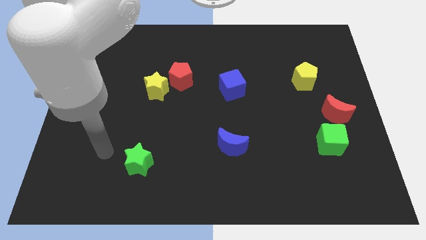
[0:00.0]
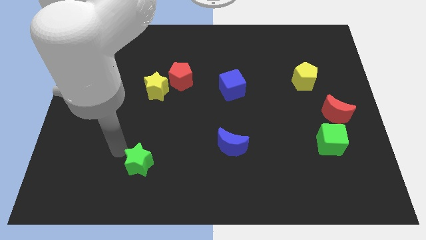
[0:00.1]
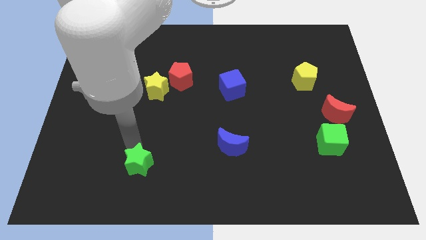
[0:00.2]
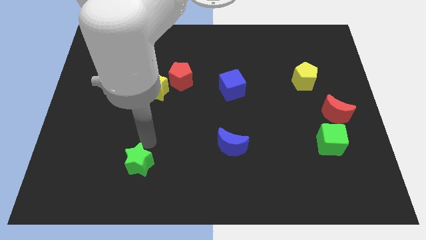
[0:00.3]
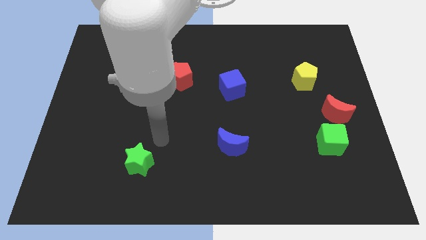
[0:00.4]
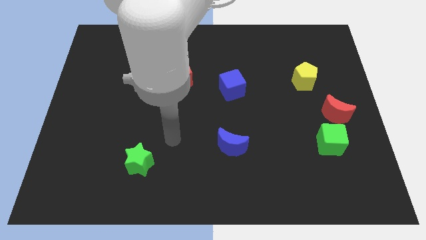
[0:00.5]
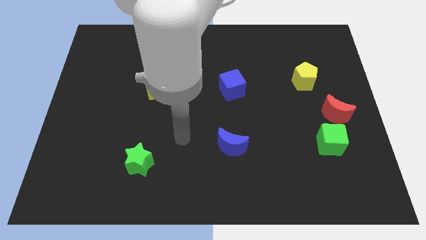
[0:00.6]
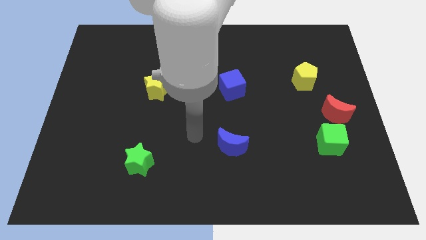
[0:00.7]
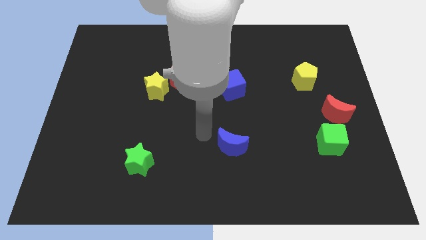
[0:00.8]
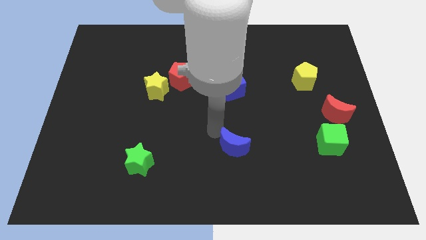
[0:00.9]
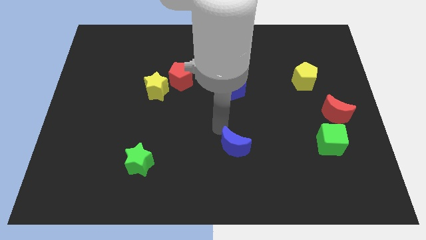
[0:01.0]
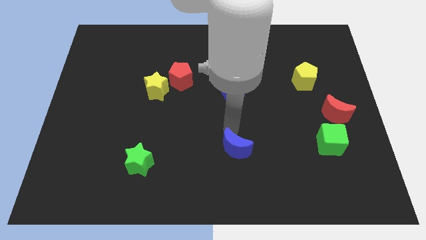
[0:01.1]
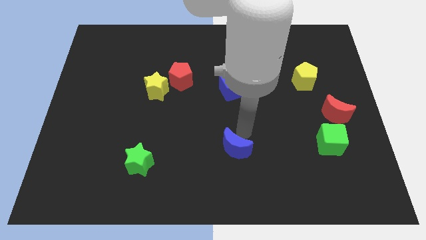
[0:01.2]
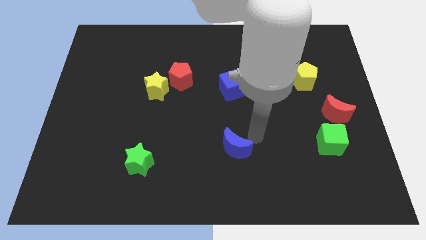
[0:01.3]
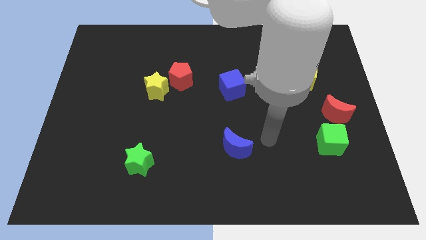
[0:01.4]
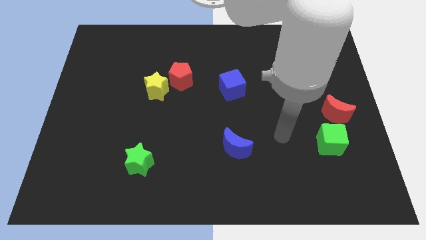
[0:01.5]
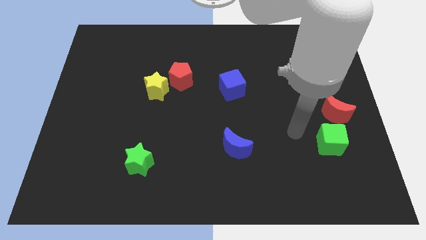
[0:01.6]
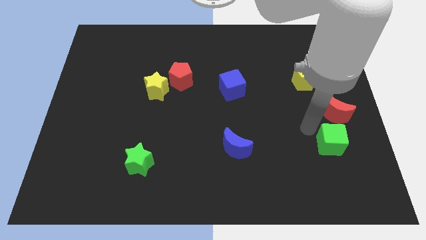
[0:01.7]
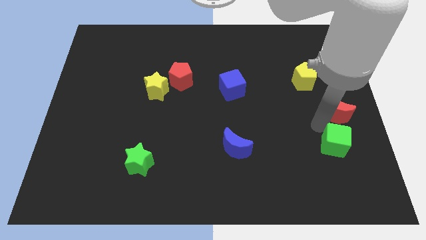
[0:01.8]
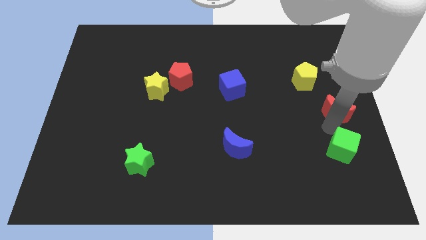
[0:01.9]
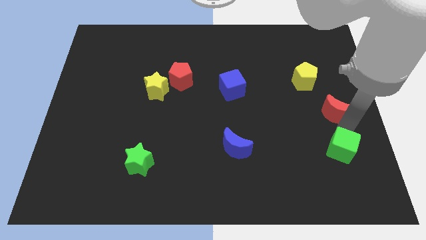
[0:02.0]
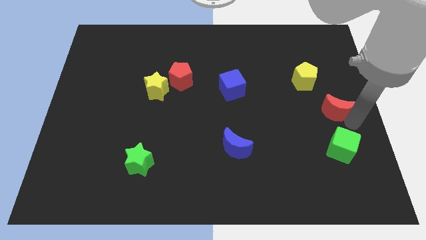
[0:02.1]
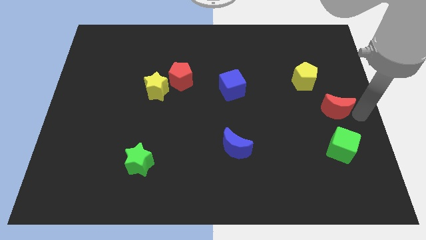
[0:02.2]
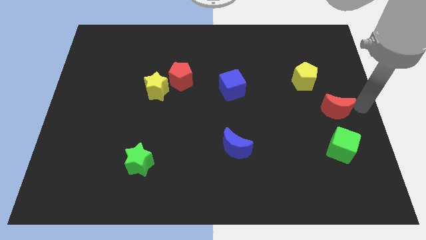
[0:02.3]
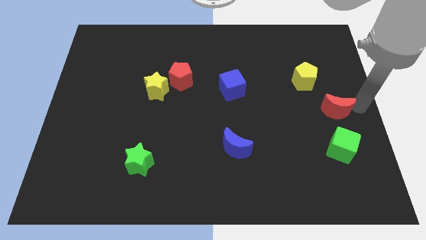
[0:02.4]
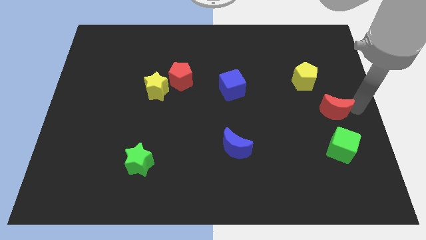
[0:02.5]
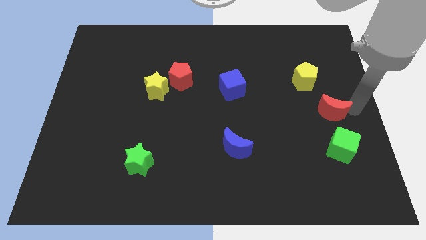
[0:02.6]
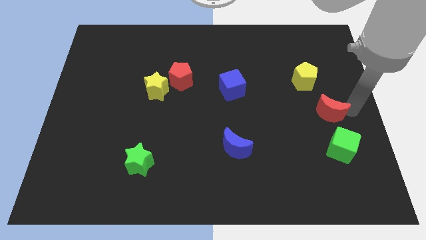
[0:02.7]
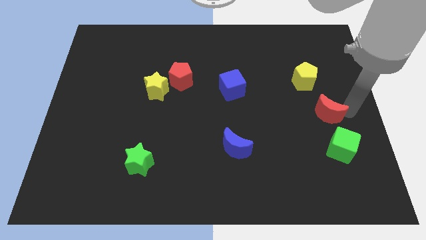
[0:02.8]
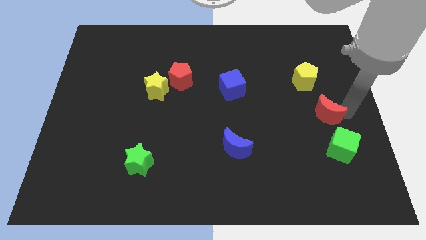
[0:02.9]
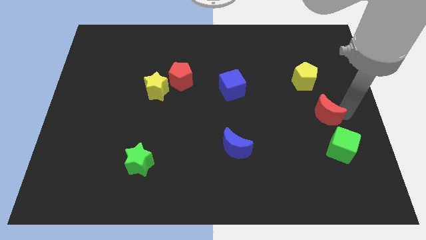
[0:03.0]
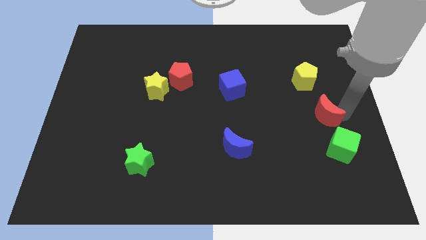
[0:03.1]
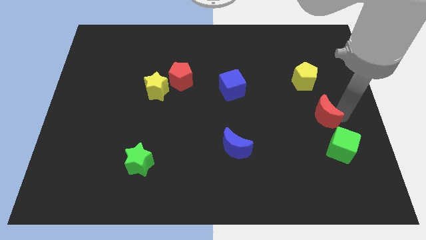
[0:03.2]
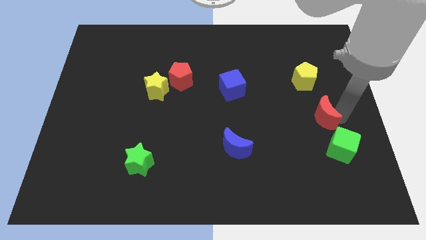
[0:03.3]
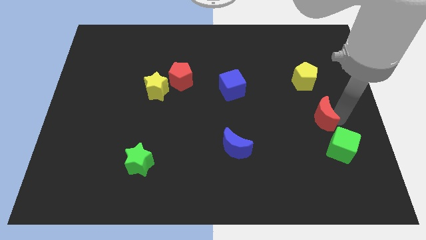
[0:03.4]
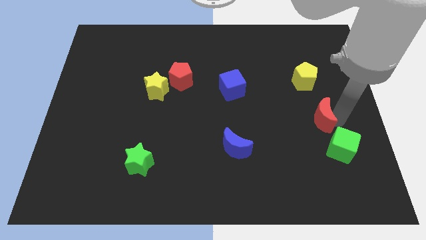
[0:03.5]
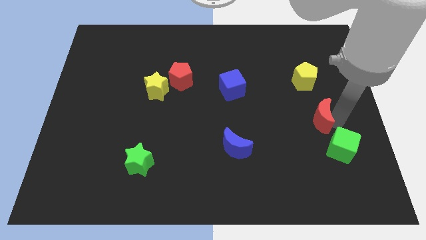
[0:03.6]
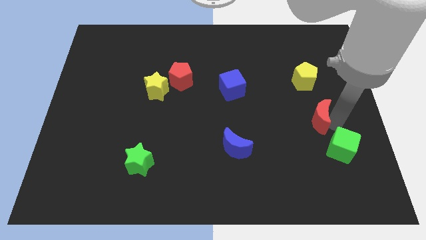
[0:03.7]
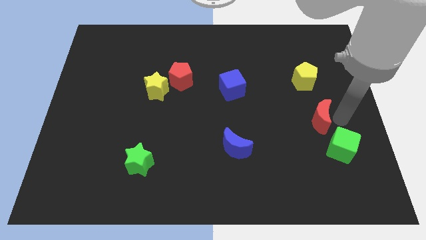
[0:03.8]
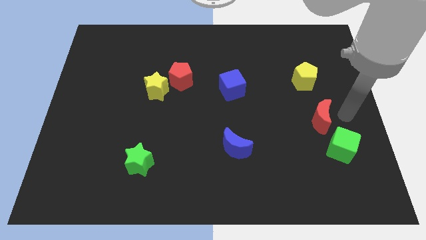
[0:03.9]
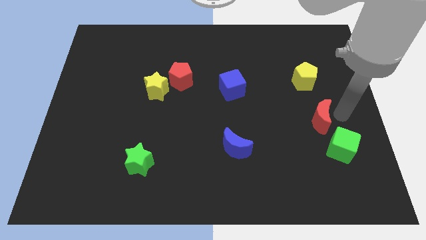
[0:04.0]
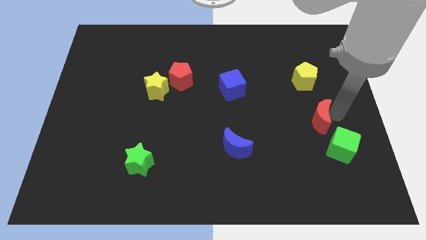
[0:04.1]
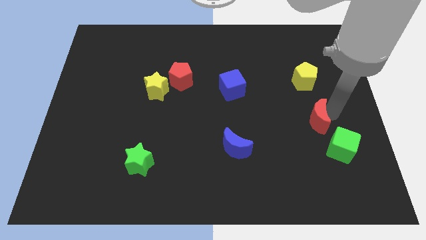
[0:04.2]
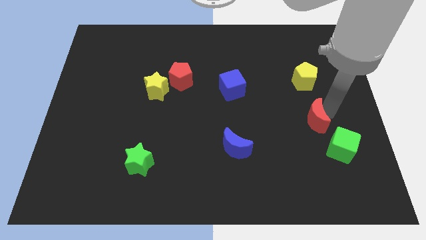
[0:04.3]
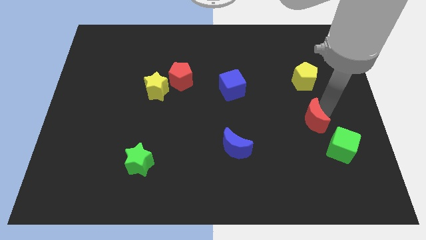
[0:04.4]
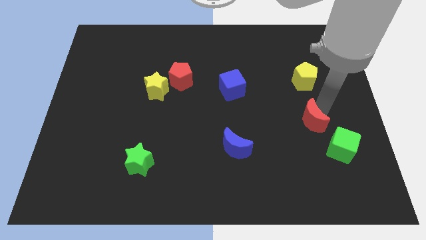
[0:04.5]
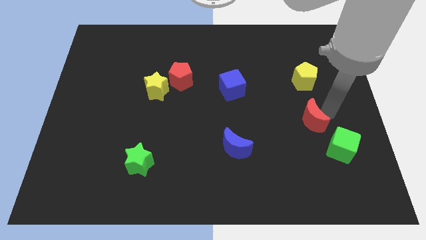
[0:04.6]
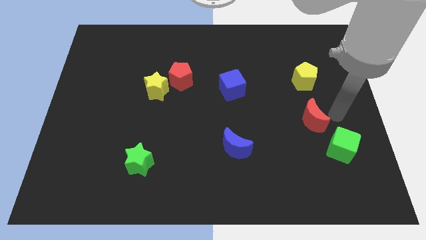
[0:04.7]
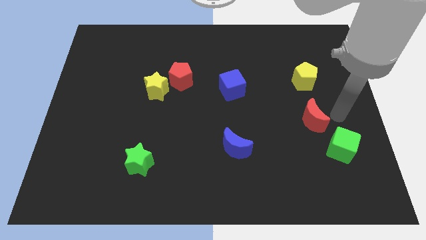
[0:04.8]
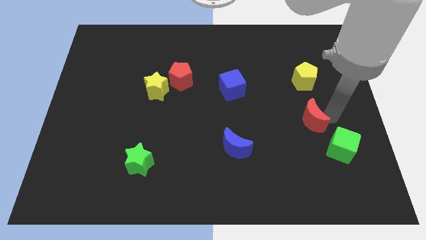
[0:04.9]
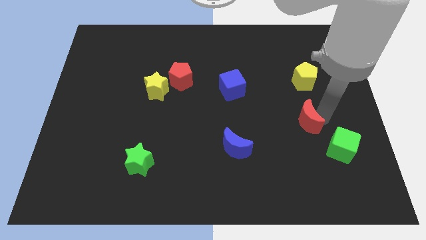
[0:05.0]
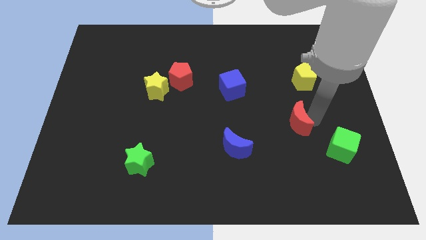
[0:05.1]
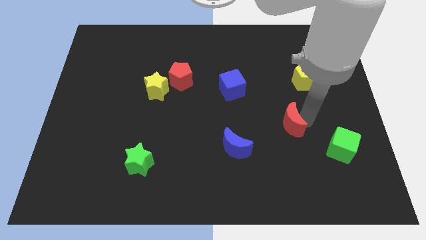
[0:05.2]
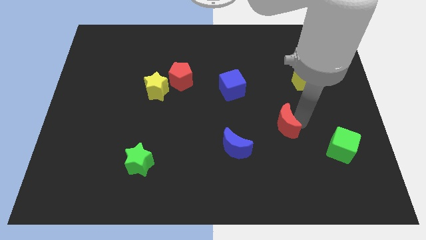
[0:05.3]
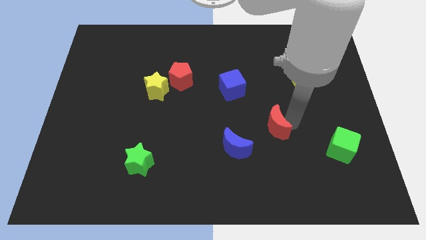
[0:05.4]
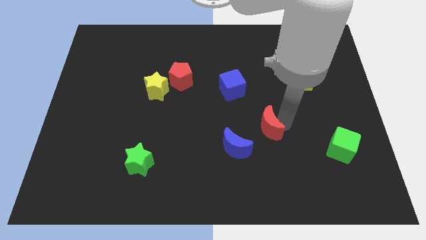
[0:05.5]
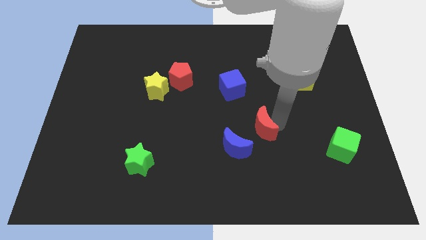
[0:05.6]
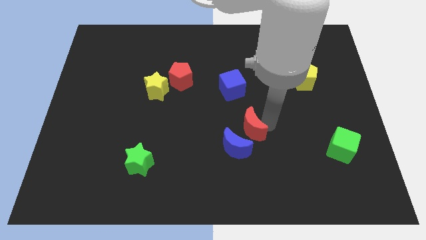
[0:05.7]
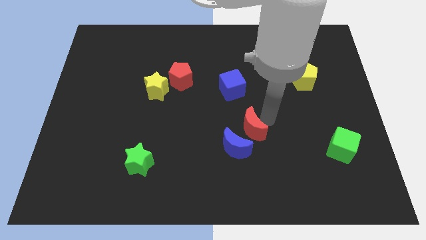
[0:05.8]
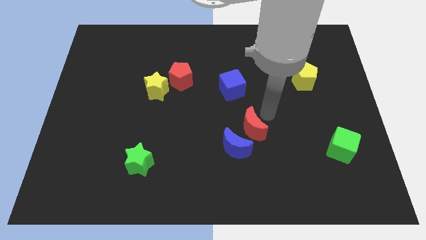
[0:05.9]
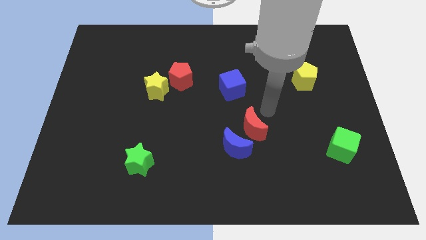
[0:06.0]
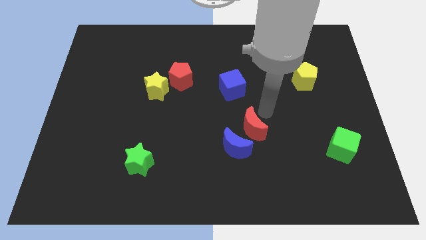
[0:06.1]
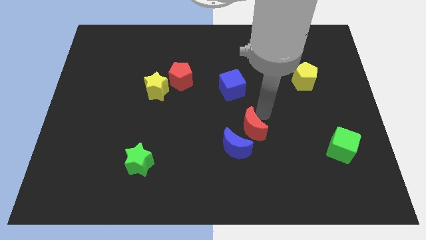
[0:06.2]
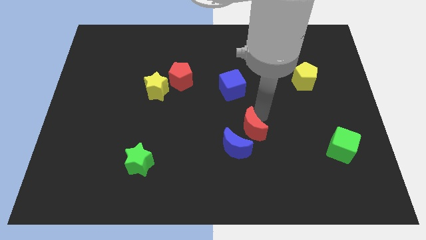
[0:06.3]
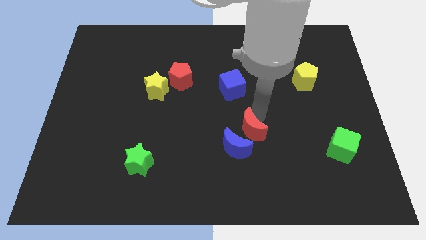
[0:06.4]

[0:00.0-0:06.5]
slide the red moon next to the blue moon
